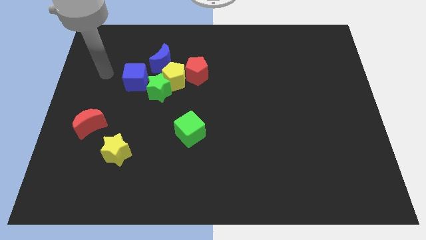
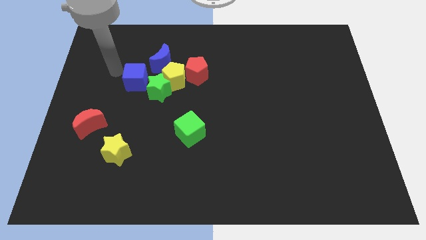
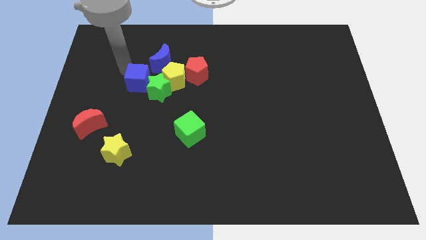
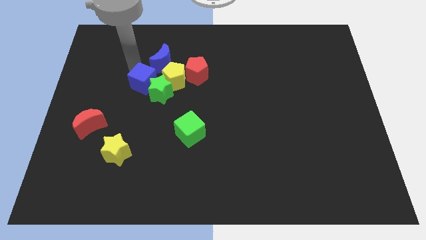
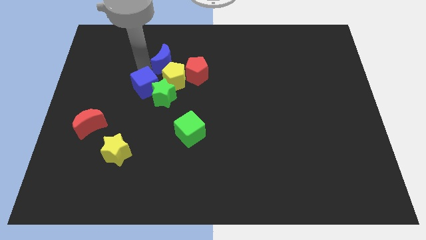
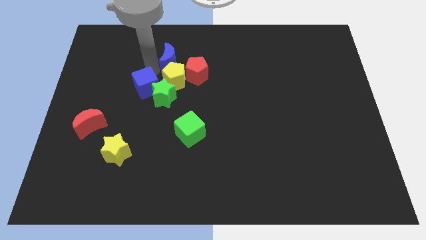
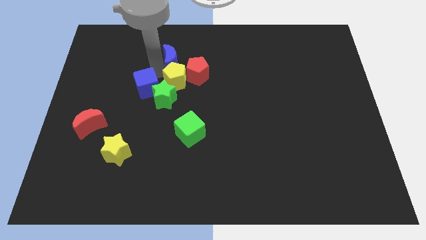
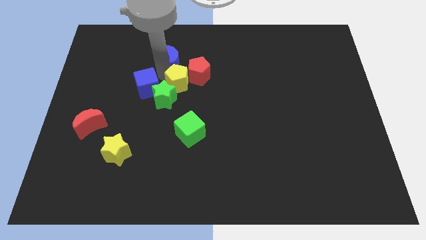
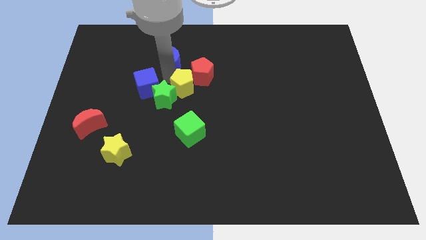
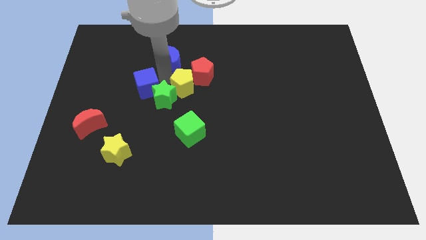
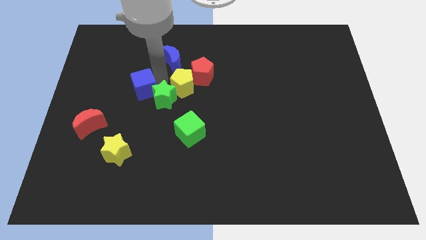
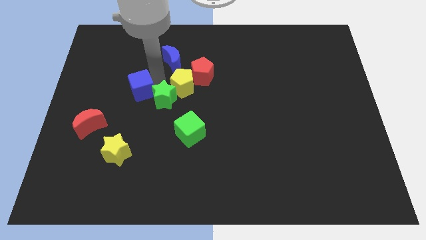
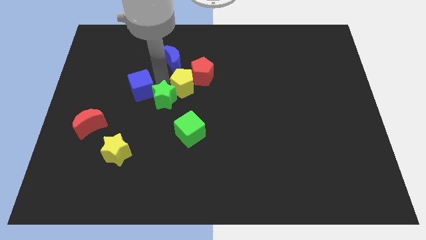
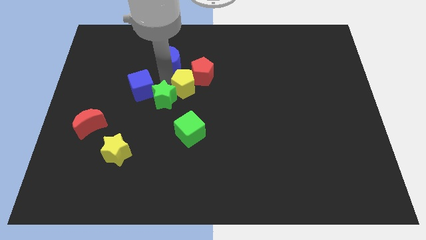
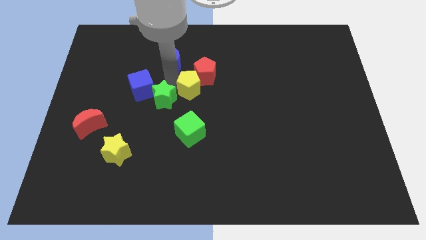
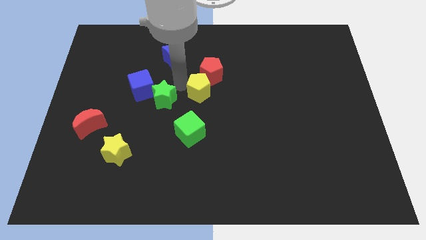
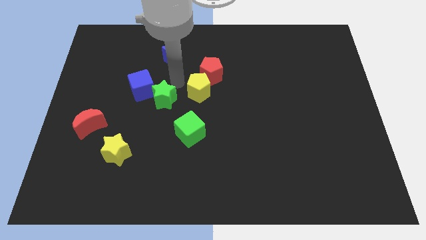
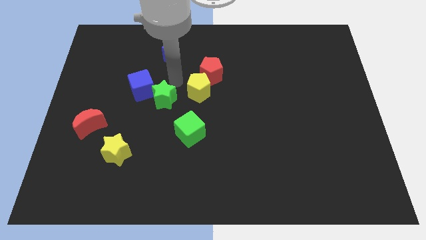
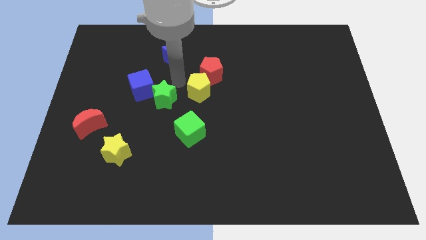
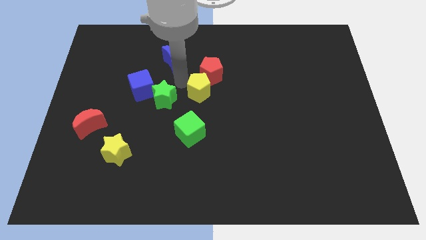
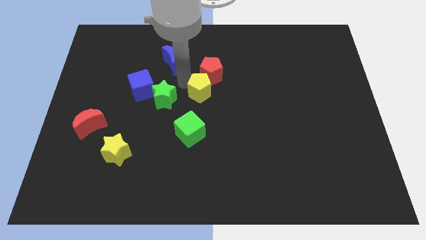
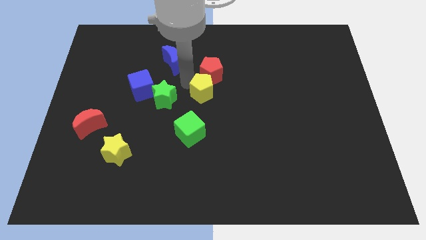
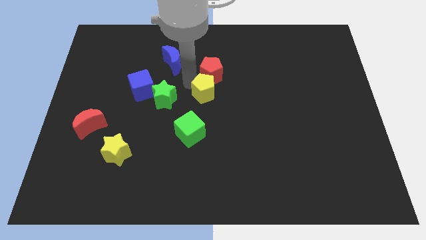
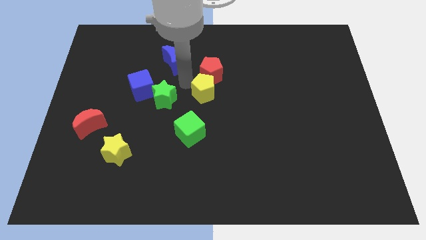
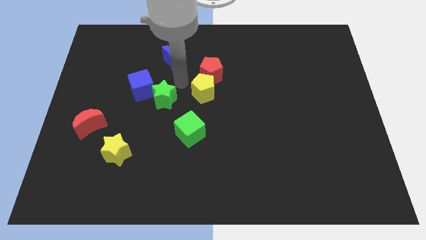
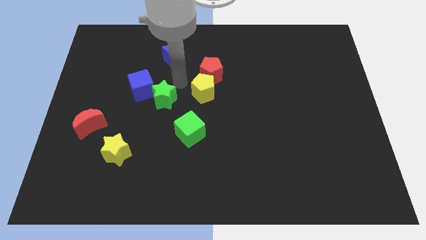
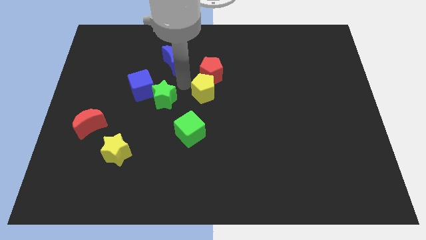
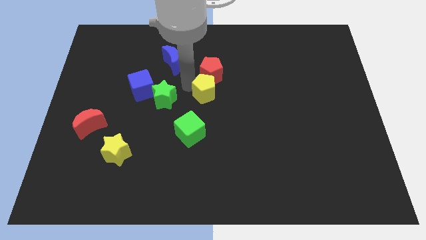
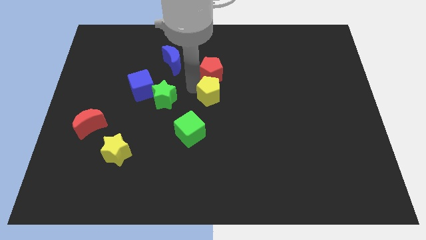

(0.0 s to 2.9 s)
move the yellow pentagon away from the group of blocks

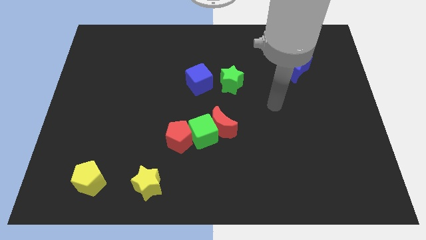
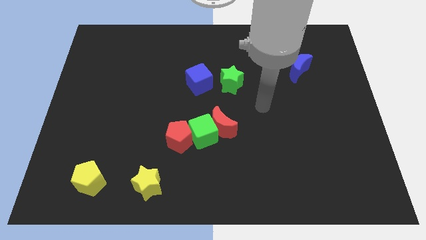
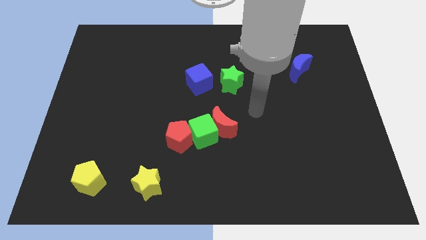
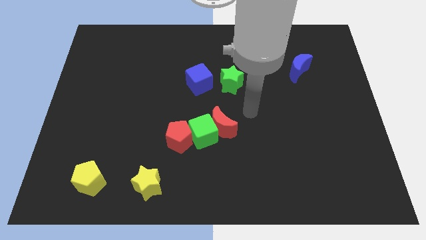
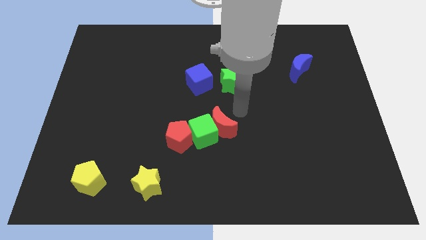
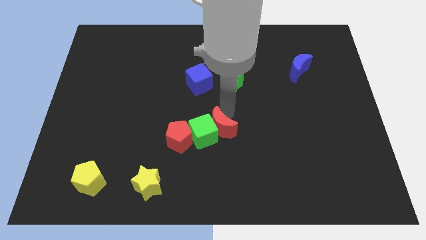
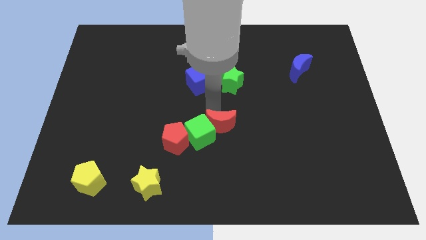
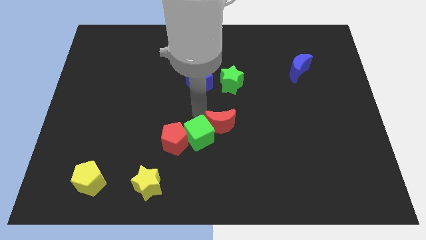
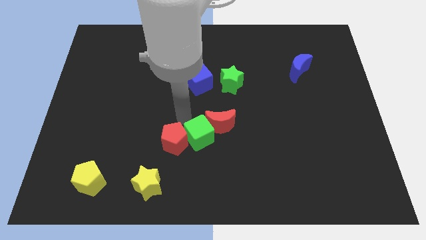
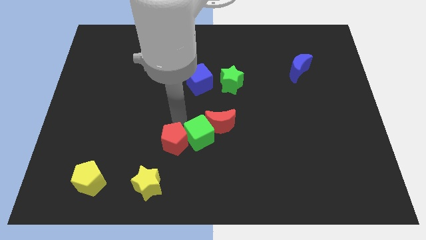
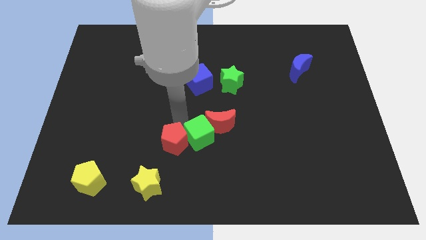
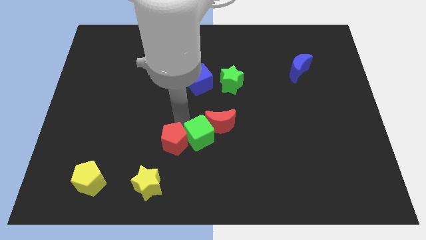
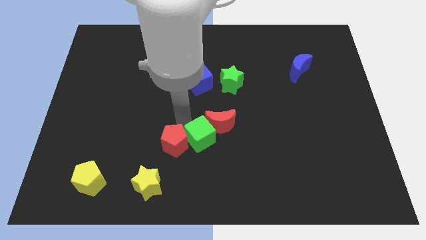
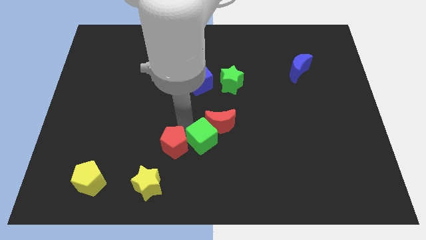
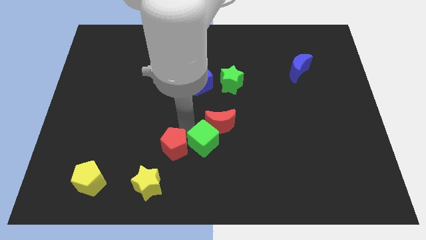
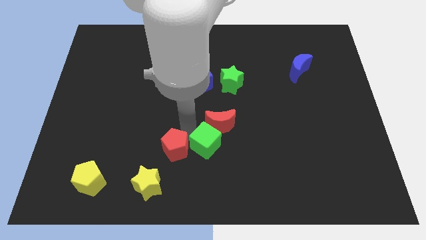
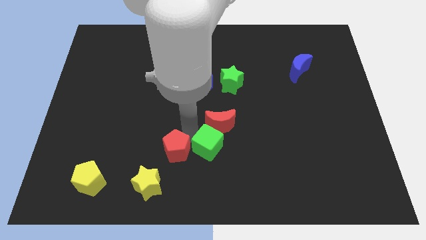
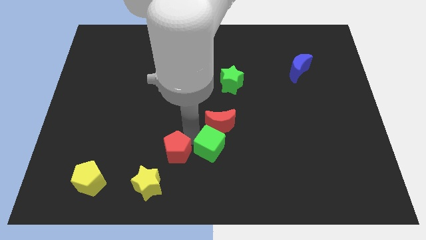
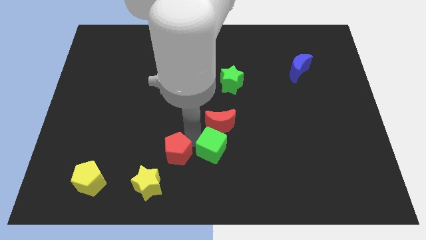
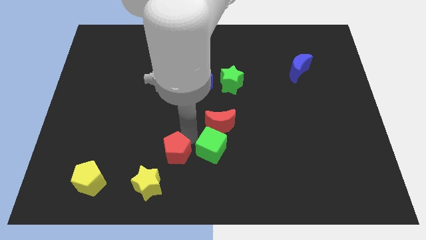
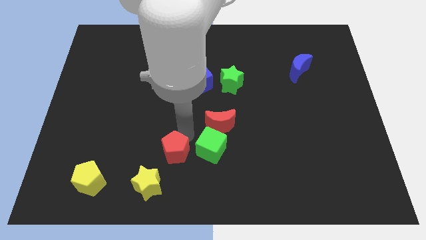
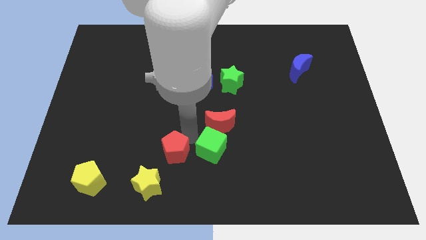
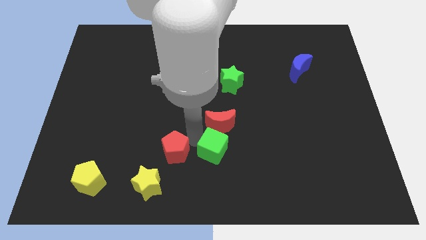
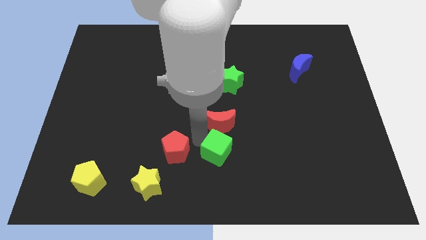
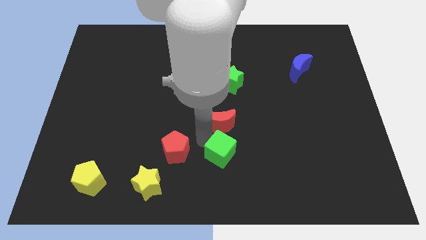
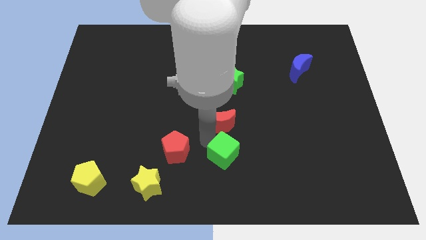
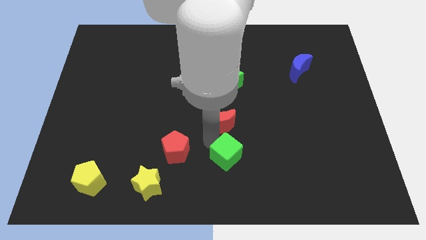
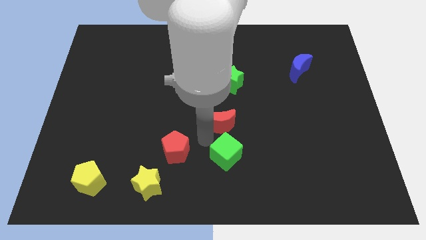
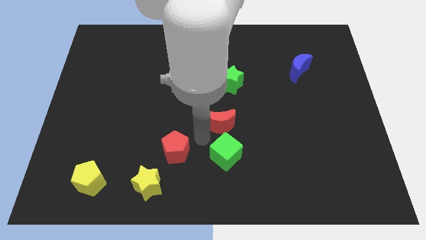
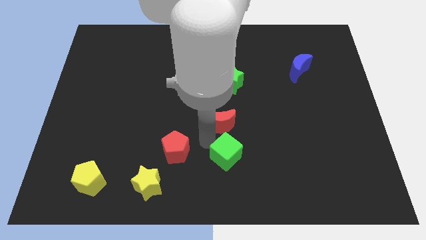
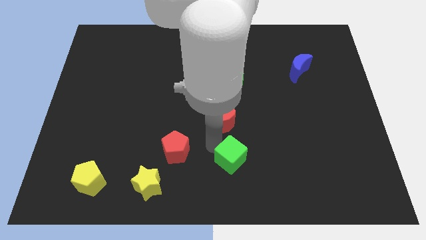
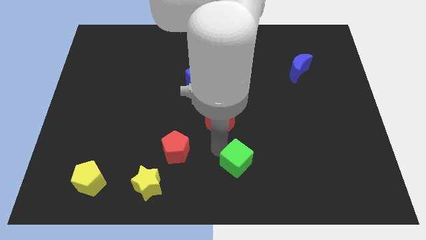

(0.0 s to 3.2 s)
move the green cube away from the red moon and red pentagon

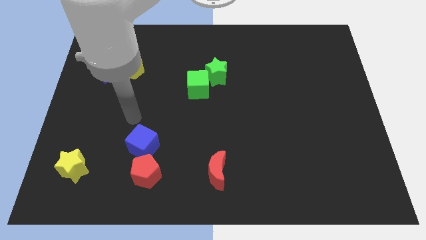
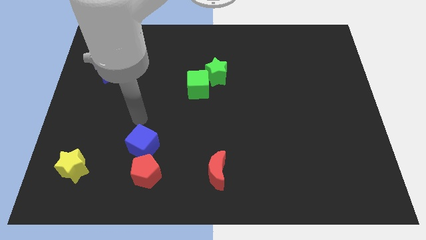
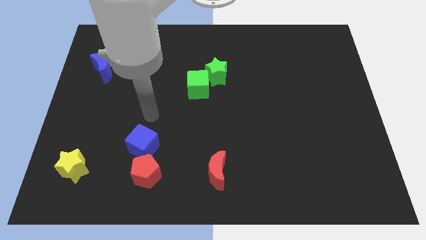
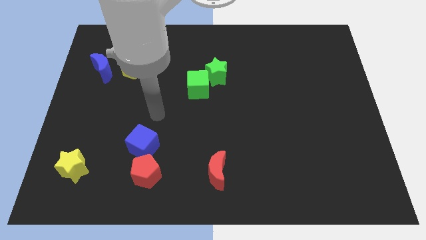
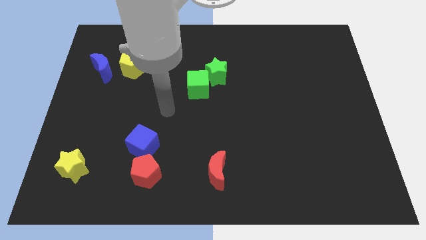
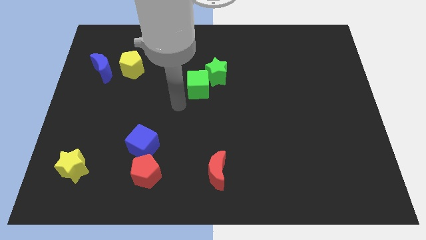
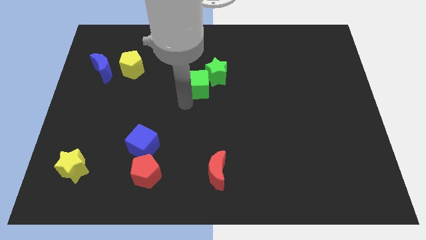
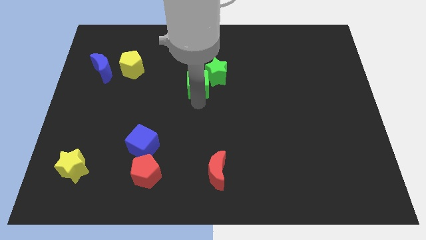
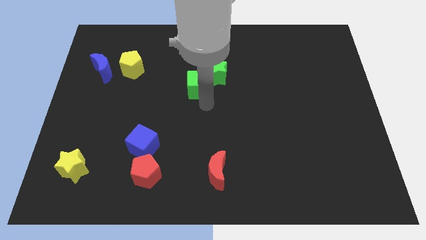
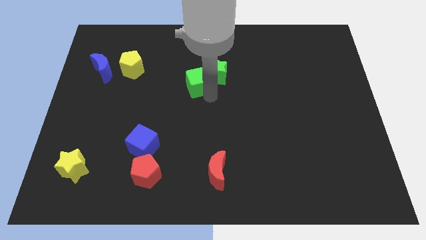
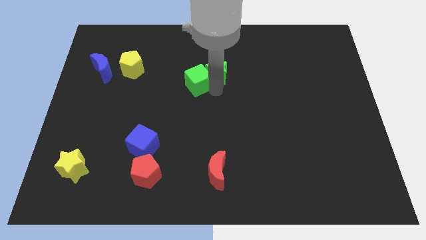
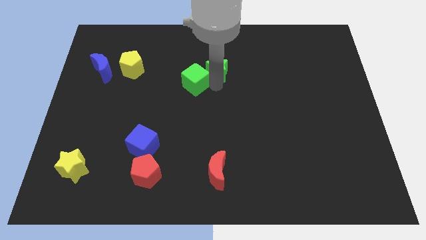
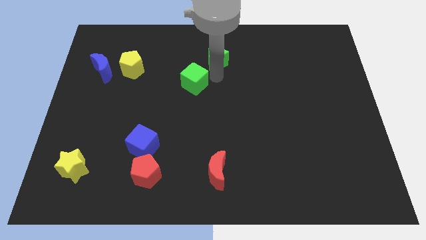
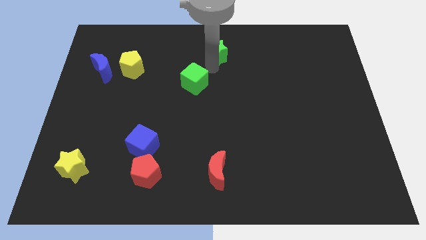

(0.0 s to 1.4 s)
separate the green cube from the green star

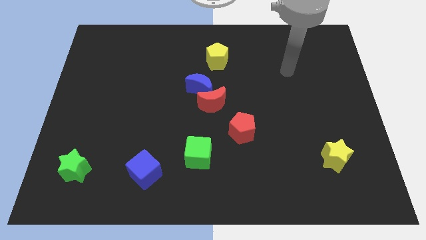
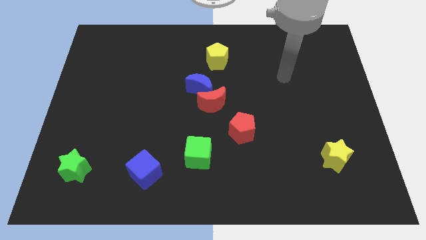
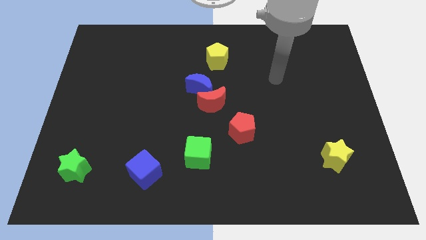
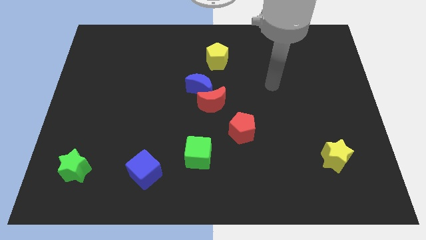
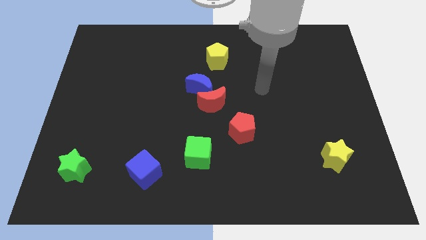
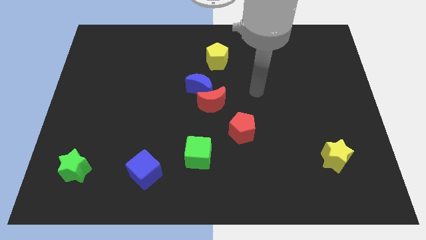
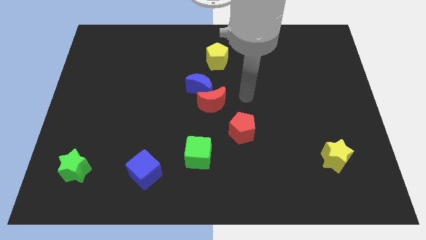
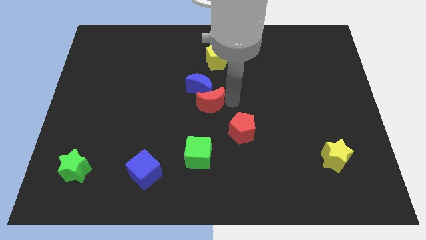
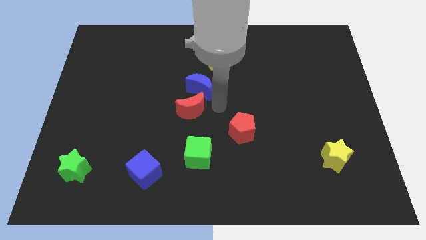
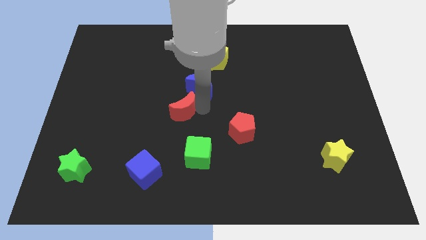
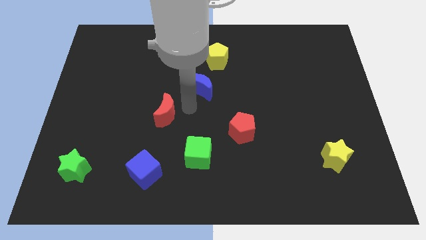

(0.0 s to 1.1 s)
separate the blue moon from the red moon

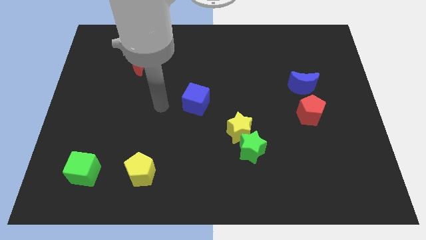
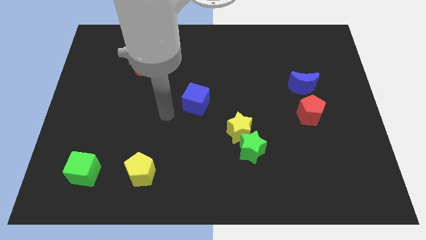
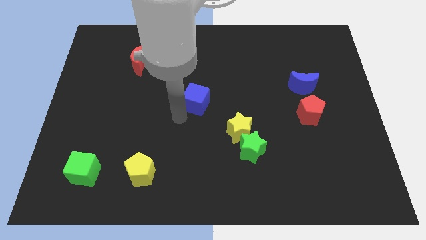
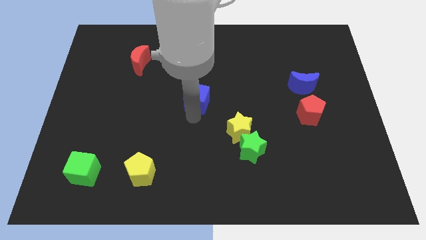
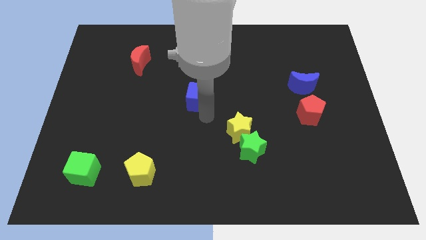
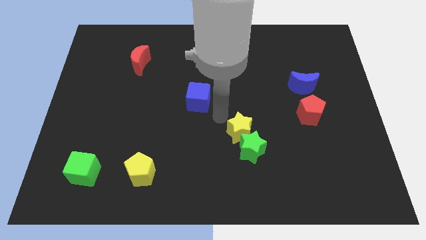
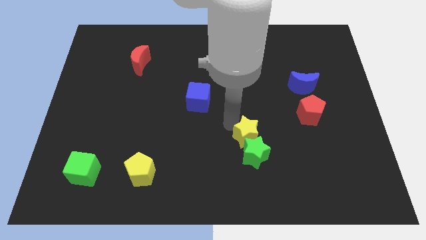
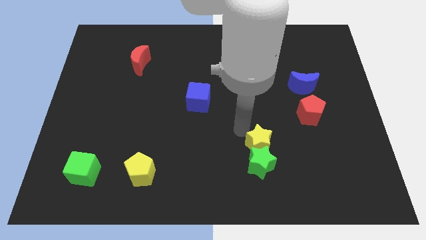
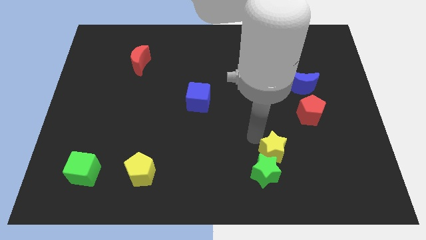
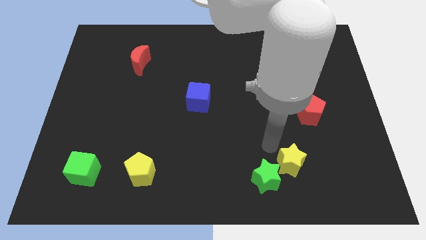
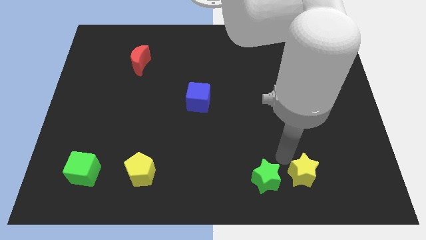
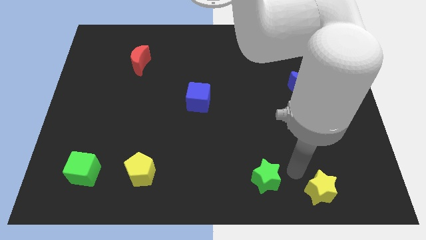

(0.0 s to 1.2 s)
pull the green star apart from the yellow star
